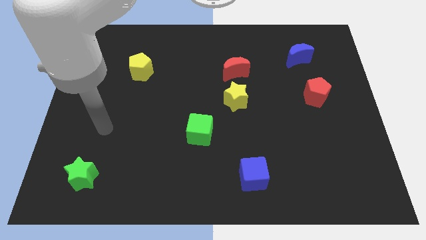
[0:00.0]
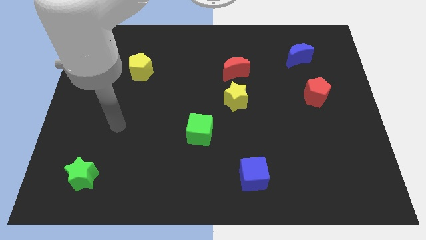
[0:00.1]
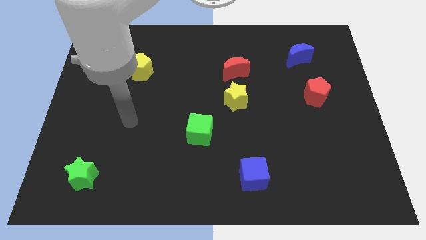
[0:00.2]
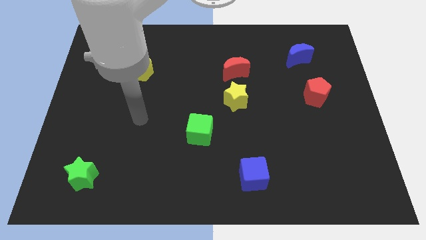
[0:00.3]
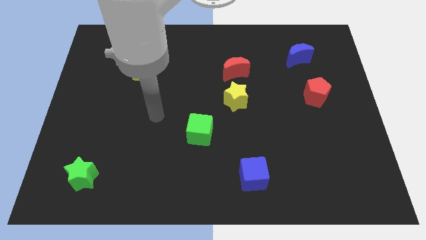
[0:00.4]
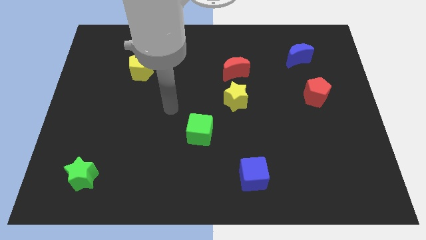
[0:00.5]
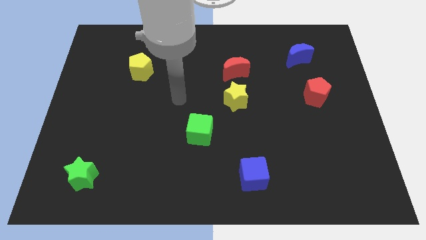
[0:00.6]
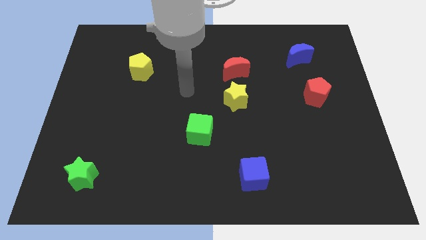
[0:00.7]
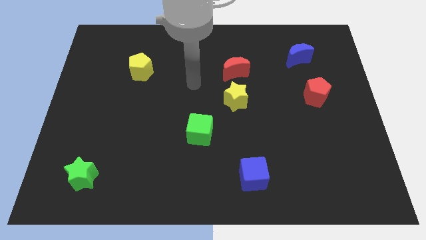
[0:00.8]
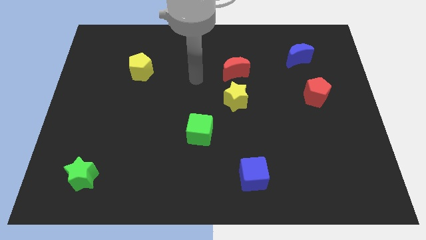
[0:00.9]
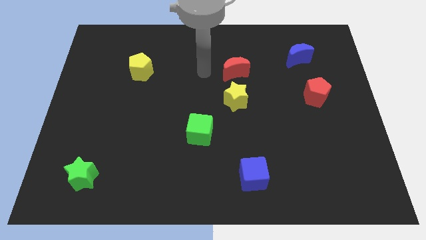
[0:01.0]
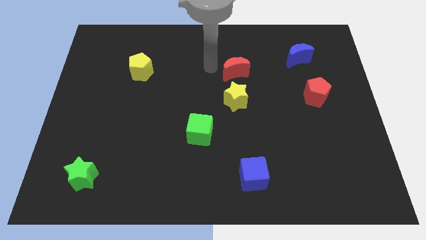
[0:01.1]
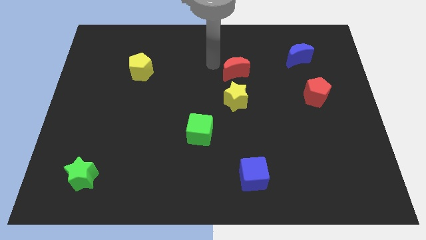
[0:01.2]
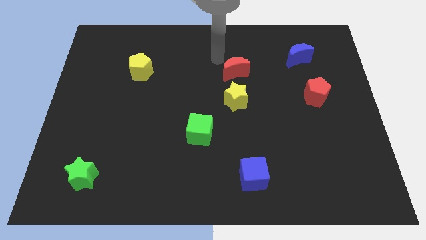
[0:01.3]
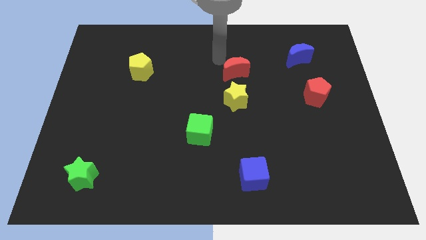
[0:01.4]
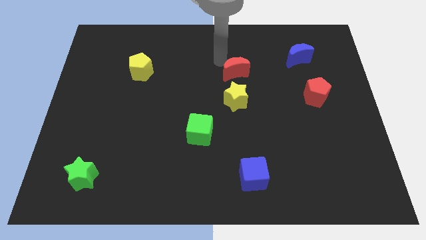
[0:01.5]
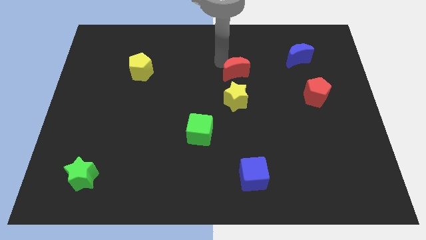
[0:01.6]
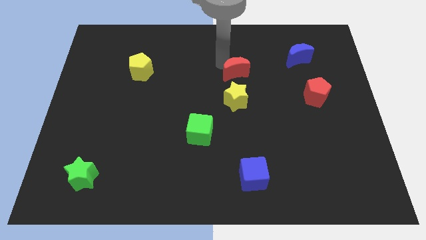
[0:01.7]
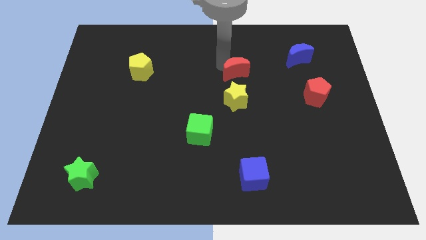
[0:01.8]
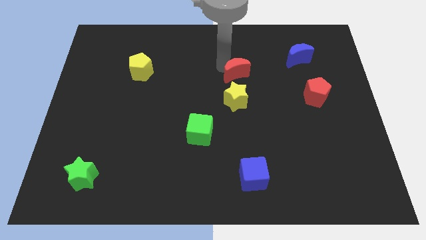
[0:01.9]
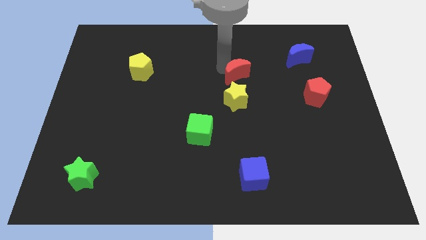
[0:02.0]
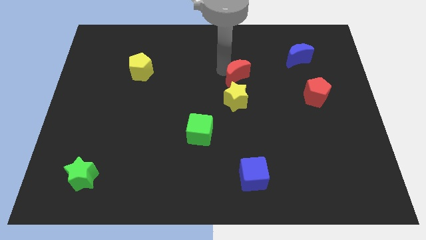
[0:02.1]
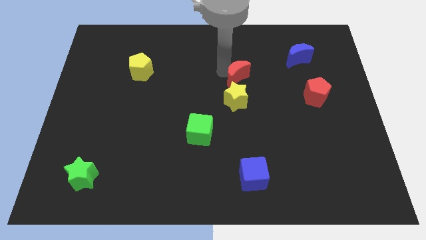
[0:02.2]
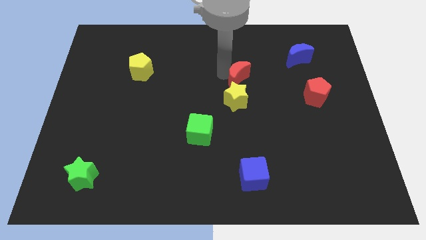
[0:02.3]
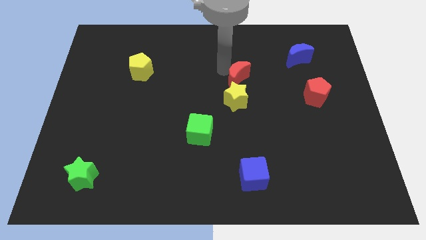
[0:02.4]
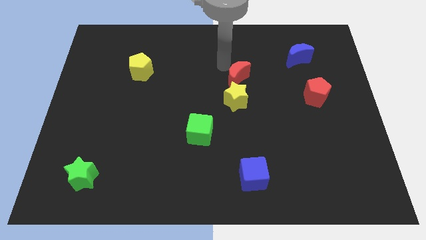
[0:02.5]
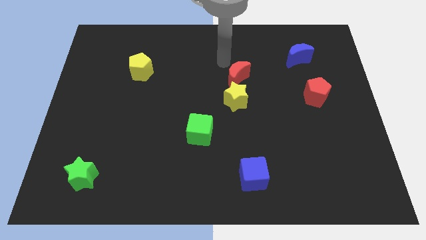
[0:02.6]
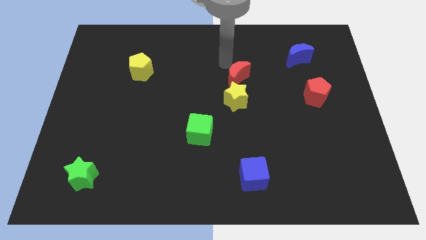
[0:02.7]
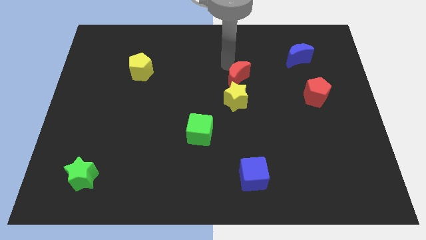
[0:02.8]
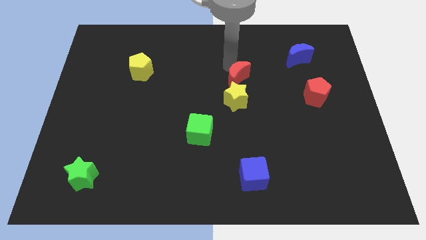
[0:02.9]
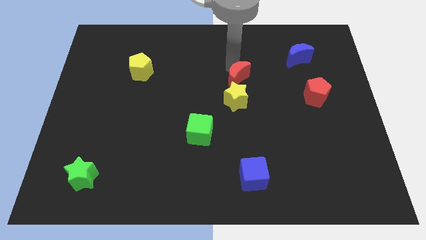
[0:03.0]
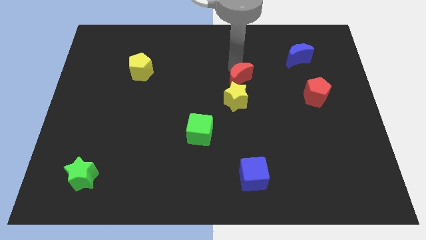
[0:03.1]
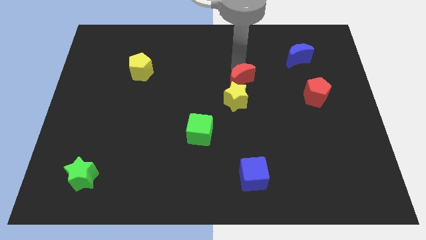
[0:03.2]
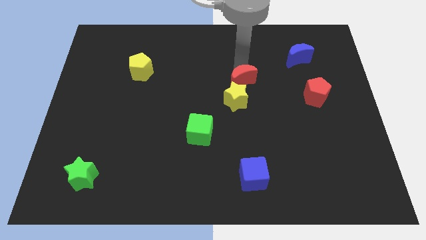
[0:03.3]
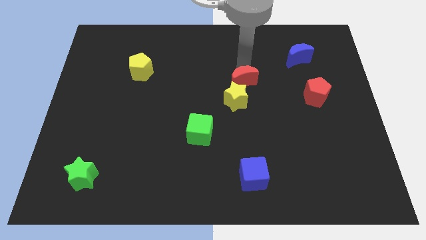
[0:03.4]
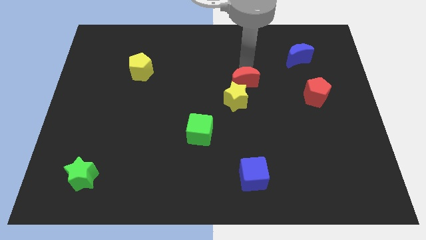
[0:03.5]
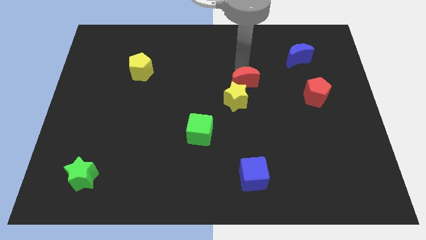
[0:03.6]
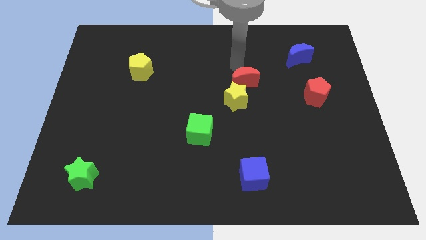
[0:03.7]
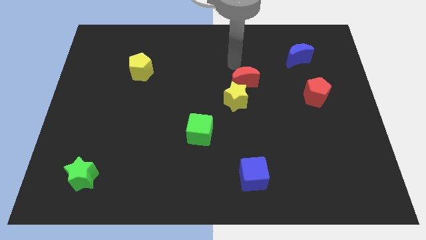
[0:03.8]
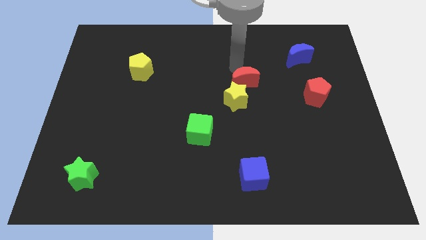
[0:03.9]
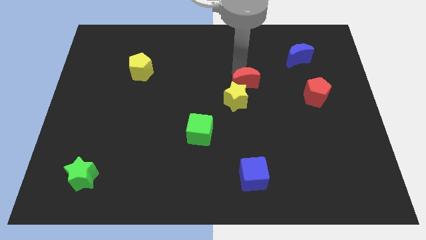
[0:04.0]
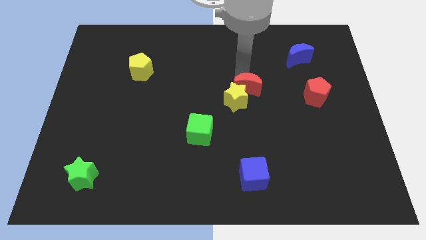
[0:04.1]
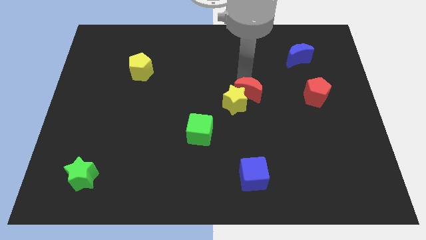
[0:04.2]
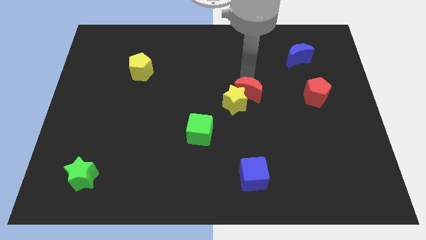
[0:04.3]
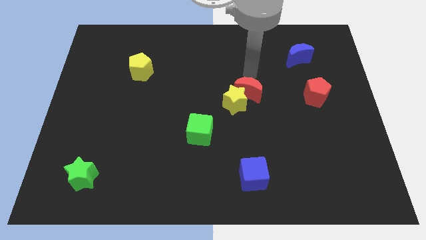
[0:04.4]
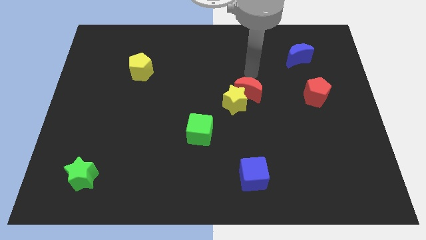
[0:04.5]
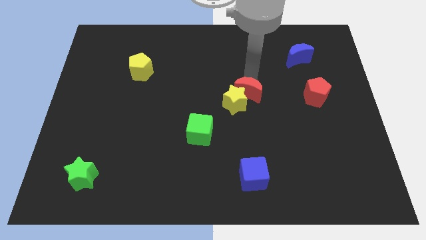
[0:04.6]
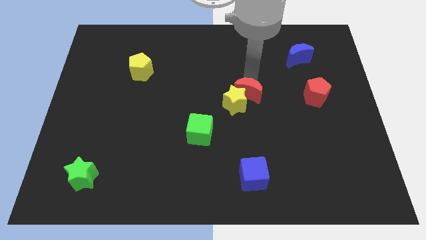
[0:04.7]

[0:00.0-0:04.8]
push the red moon slightly downwards

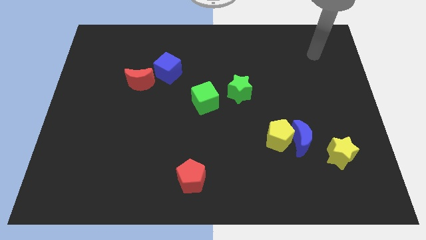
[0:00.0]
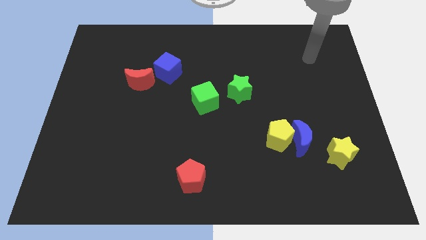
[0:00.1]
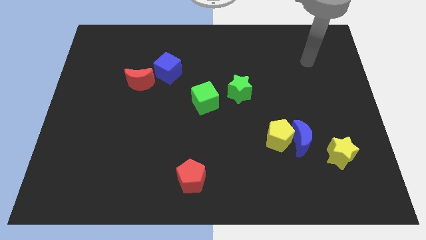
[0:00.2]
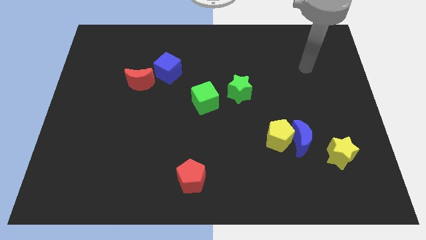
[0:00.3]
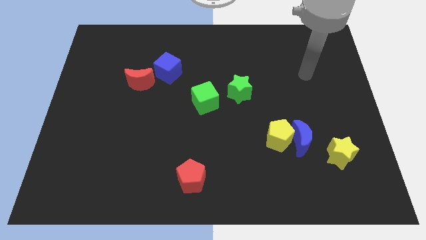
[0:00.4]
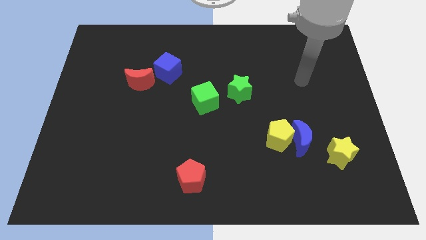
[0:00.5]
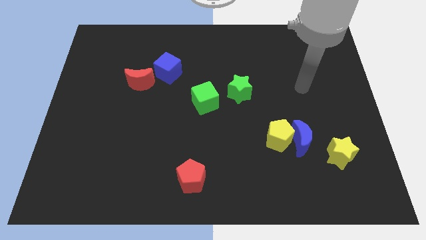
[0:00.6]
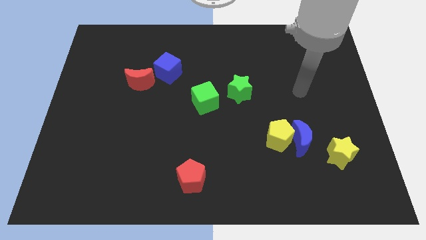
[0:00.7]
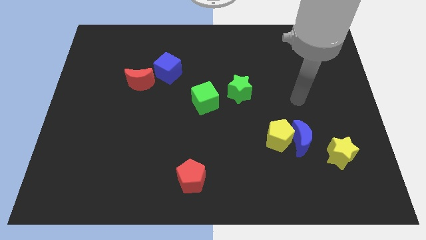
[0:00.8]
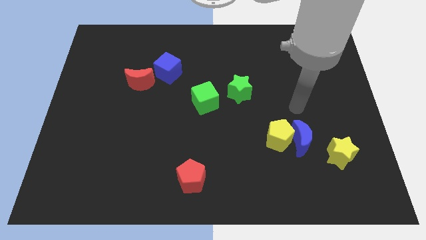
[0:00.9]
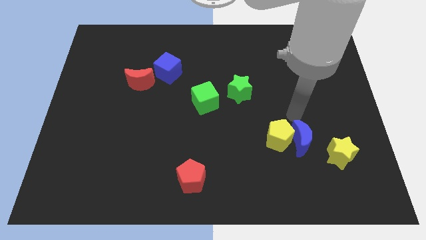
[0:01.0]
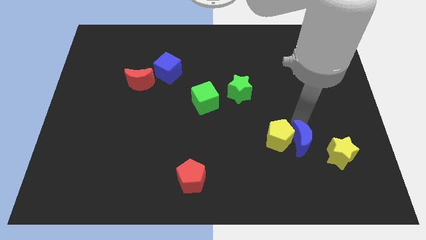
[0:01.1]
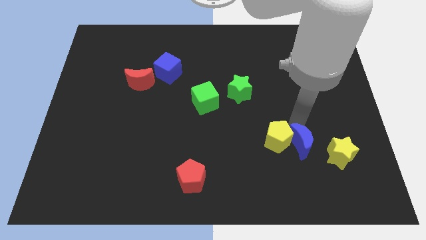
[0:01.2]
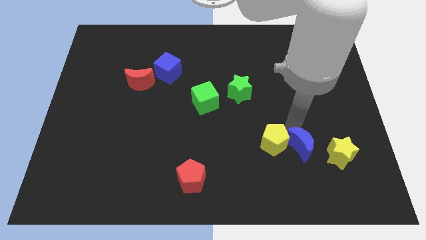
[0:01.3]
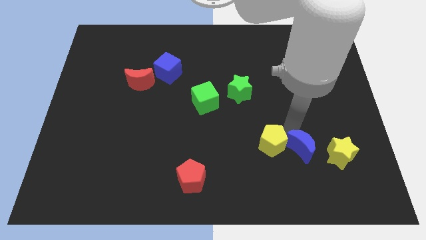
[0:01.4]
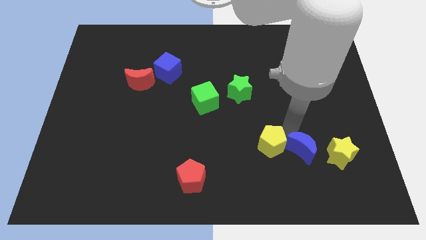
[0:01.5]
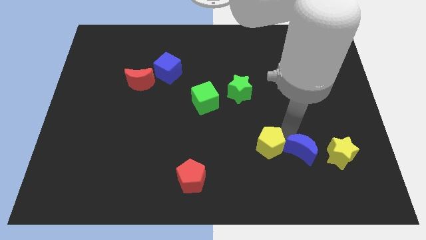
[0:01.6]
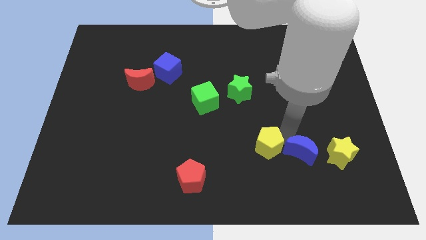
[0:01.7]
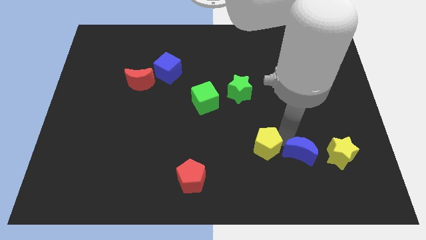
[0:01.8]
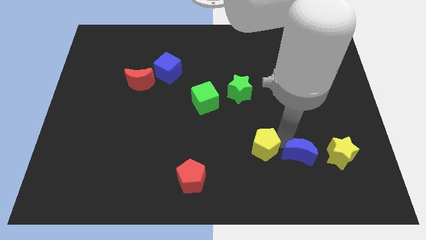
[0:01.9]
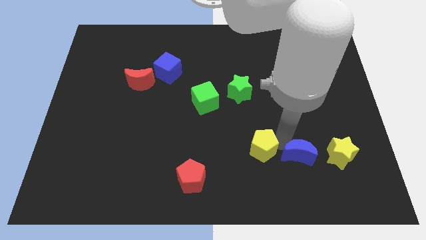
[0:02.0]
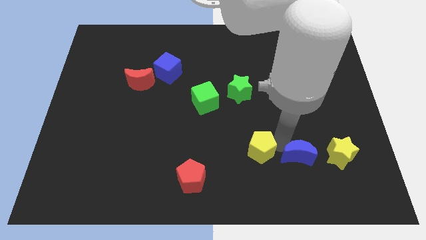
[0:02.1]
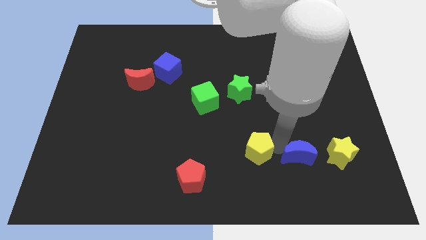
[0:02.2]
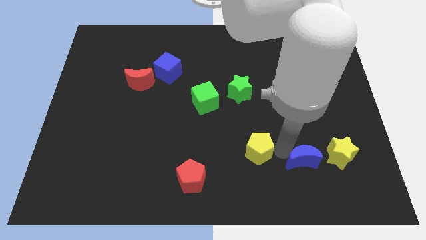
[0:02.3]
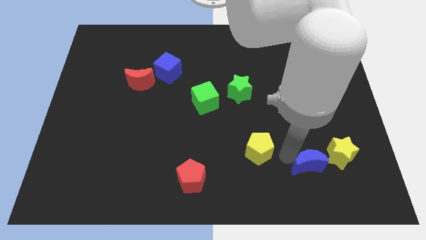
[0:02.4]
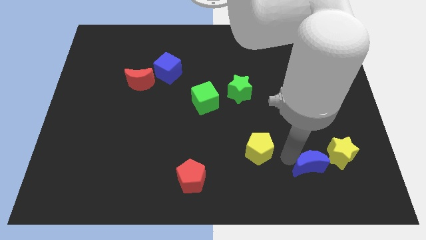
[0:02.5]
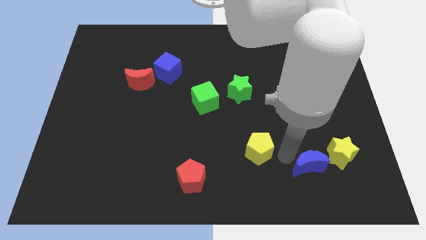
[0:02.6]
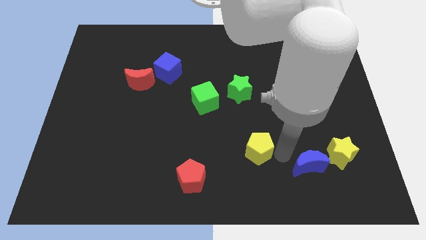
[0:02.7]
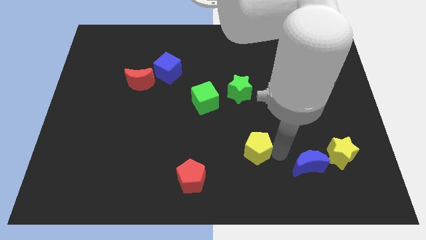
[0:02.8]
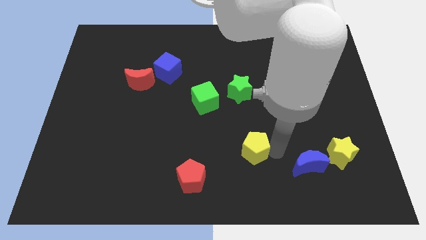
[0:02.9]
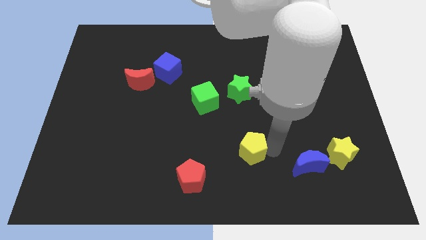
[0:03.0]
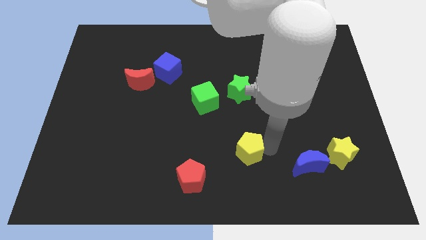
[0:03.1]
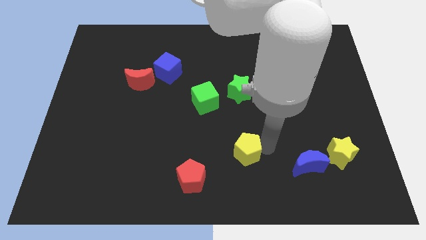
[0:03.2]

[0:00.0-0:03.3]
move the yellow pentagon to the left a bit
